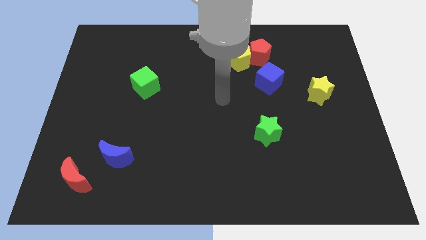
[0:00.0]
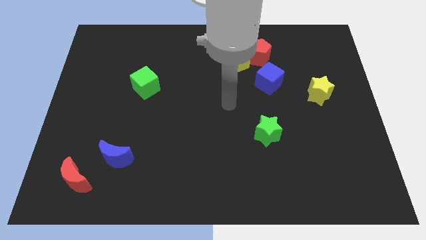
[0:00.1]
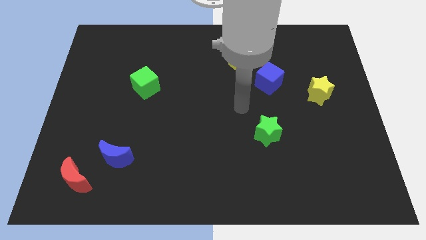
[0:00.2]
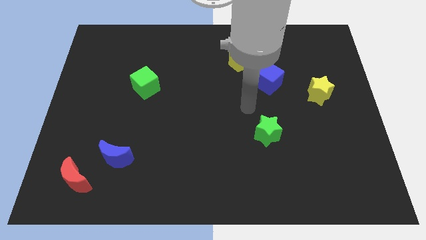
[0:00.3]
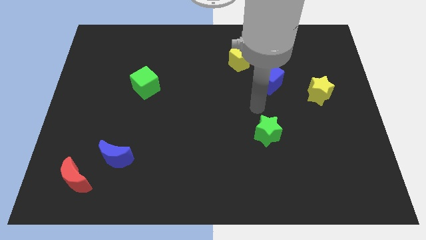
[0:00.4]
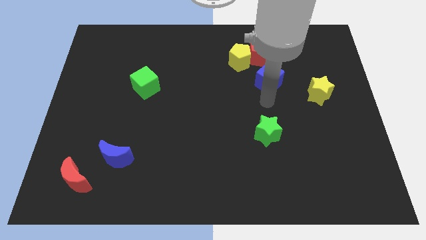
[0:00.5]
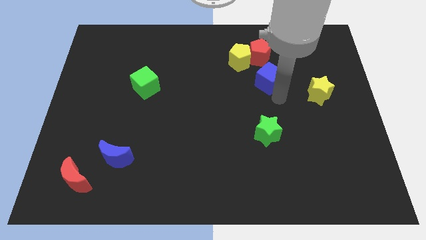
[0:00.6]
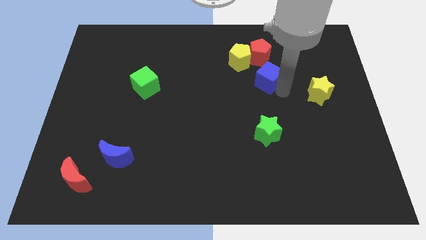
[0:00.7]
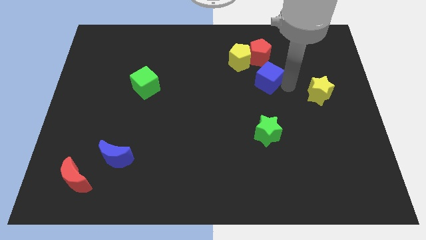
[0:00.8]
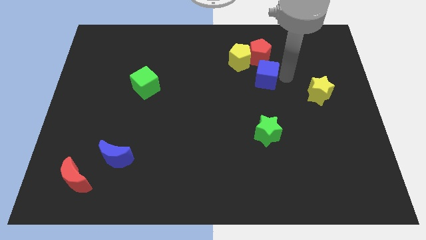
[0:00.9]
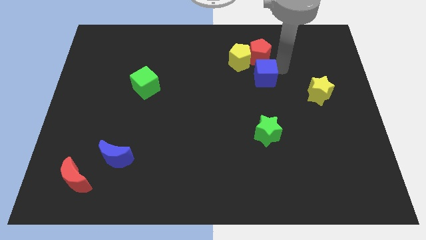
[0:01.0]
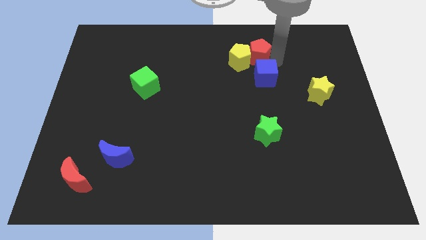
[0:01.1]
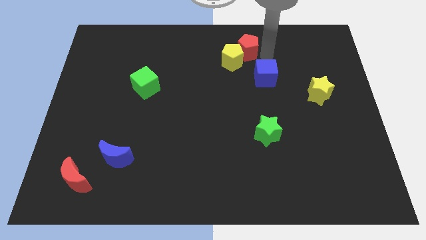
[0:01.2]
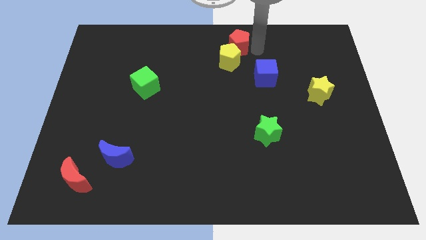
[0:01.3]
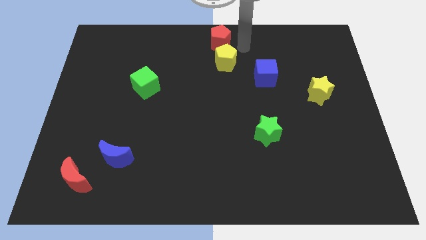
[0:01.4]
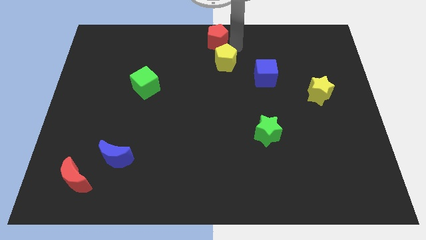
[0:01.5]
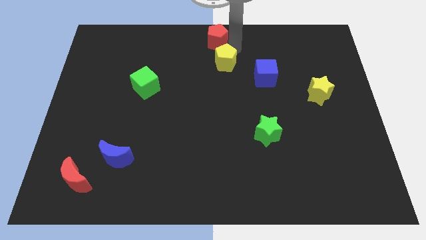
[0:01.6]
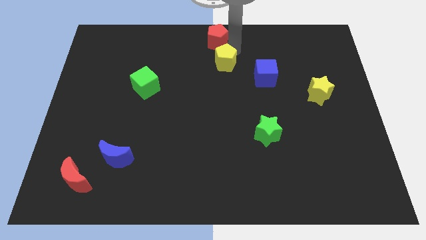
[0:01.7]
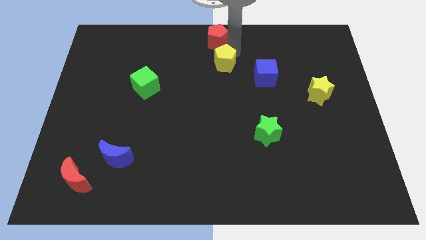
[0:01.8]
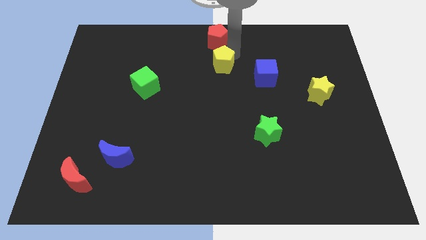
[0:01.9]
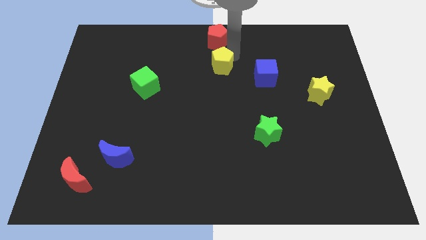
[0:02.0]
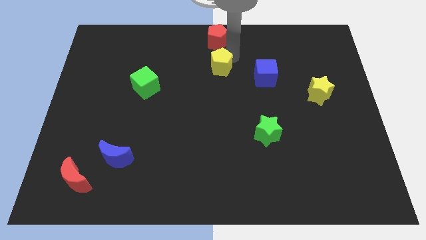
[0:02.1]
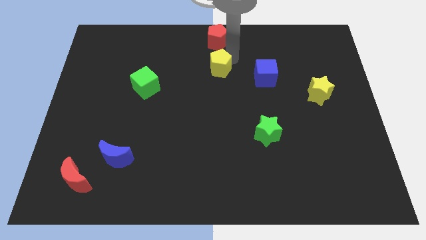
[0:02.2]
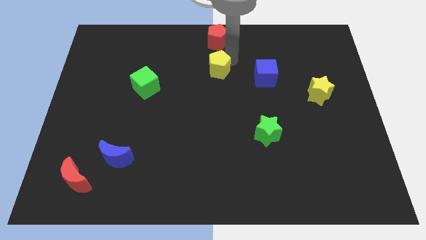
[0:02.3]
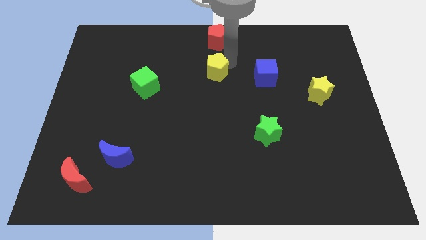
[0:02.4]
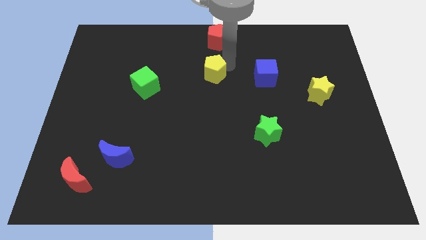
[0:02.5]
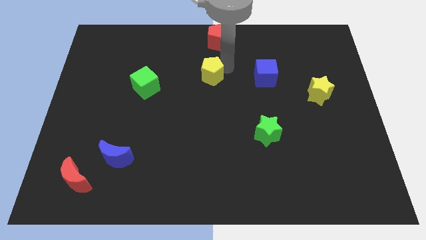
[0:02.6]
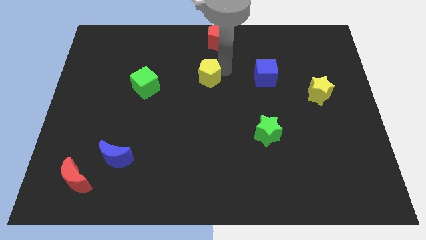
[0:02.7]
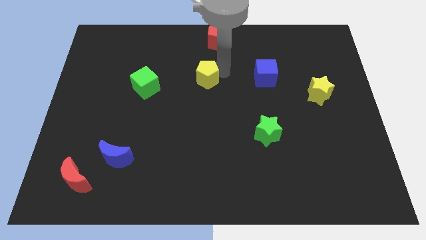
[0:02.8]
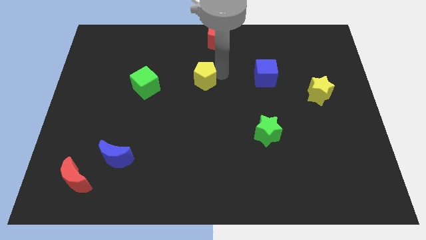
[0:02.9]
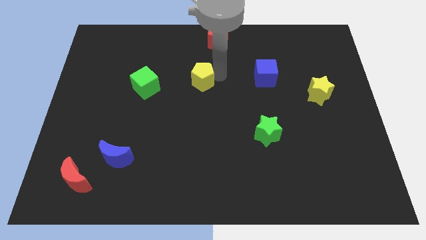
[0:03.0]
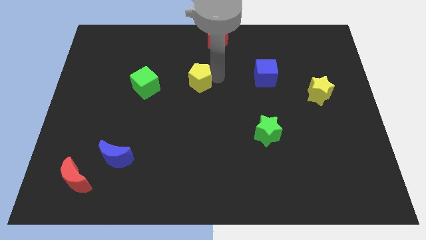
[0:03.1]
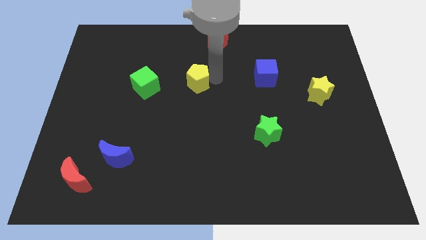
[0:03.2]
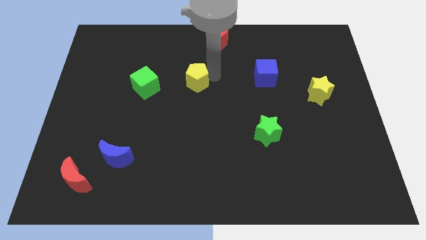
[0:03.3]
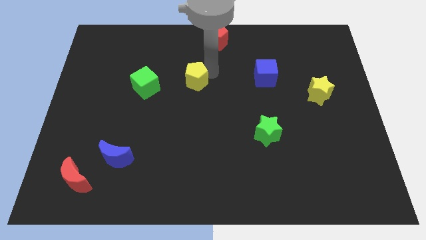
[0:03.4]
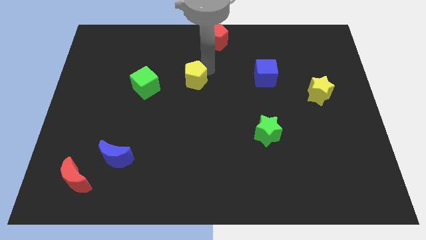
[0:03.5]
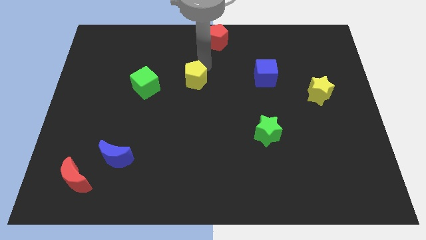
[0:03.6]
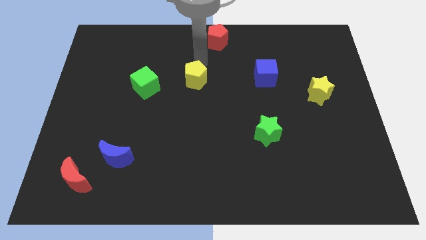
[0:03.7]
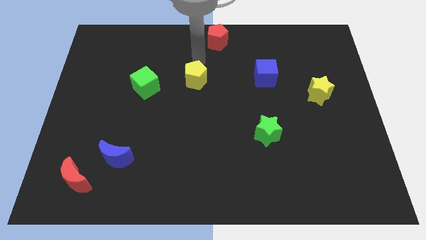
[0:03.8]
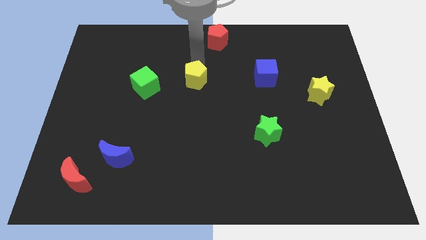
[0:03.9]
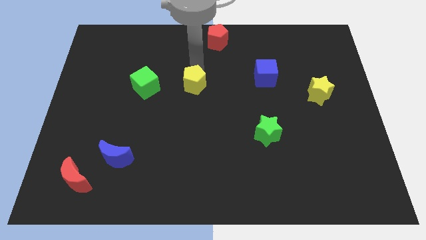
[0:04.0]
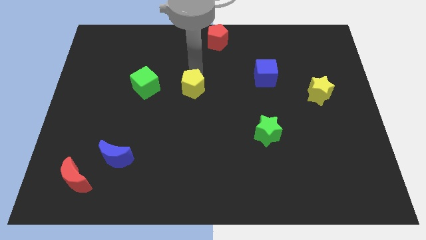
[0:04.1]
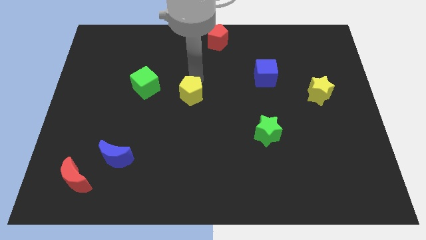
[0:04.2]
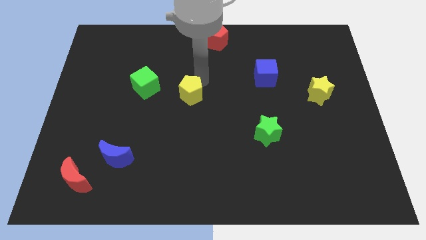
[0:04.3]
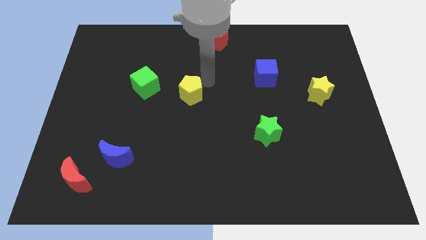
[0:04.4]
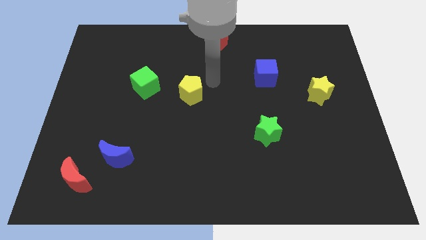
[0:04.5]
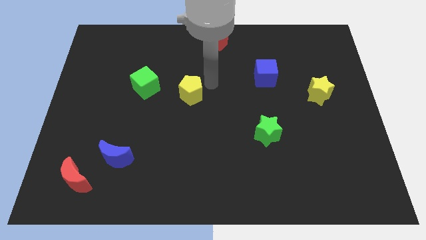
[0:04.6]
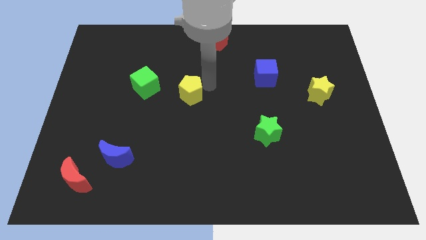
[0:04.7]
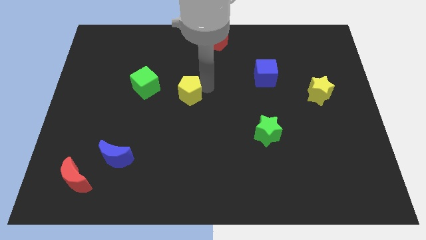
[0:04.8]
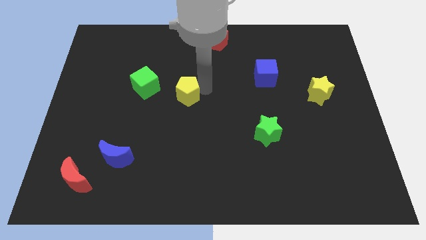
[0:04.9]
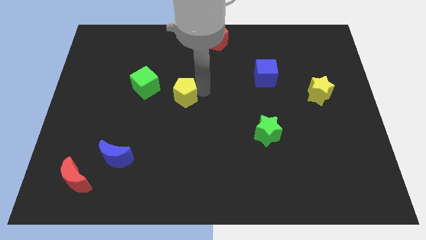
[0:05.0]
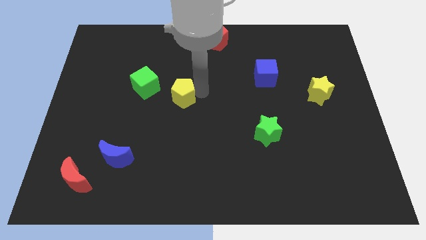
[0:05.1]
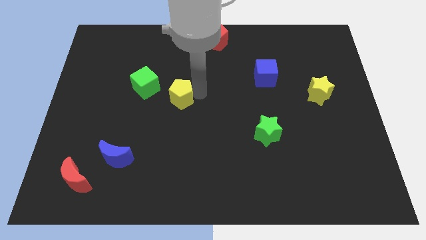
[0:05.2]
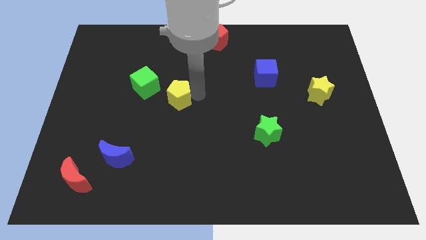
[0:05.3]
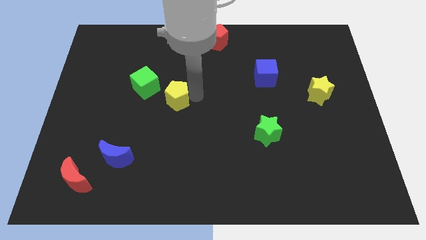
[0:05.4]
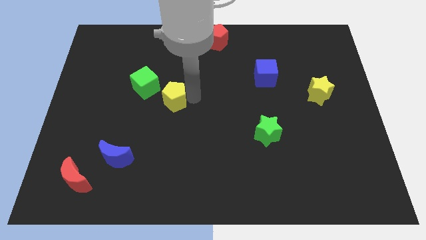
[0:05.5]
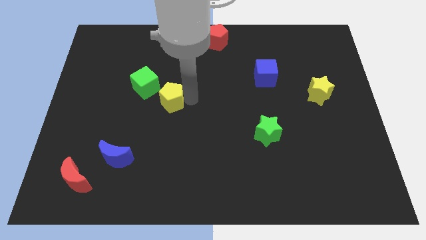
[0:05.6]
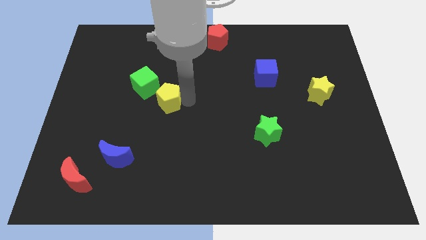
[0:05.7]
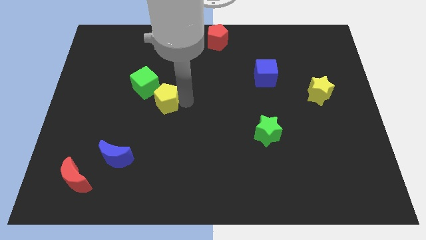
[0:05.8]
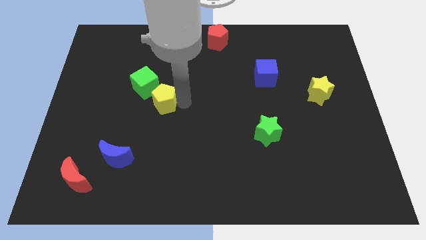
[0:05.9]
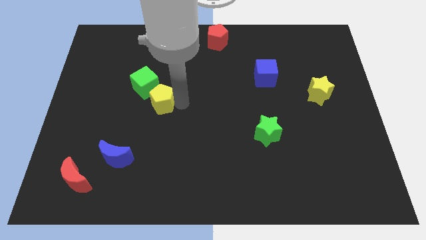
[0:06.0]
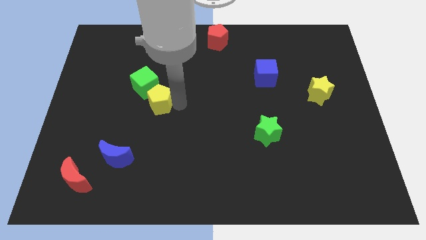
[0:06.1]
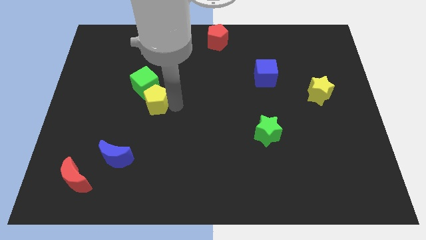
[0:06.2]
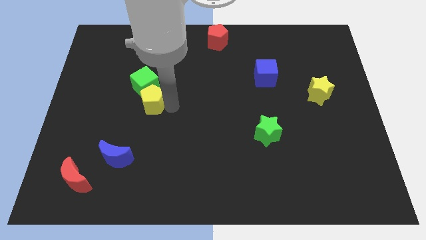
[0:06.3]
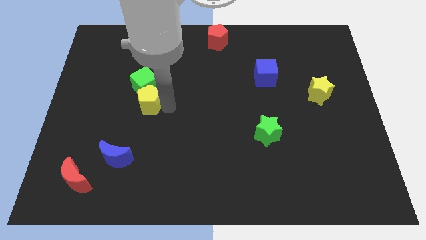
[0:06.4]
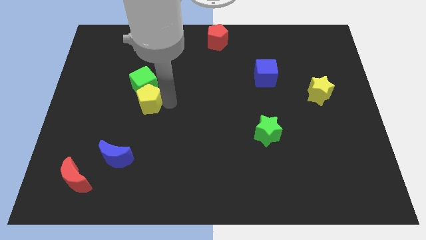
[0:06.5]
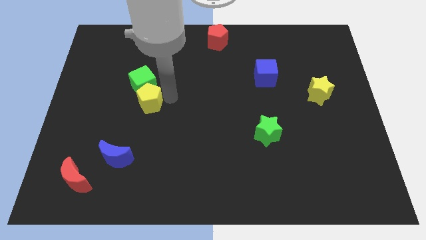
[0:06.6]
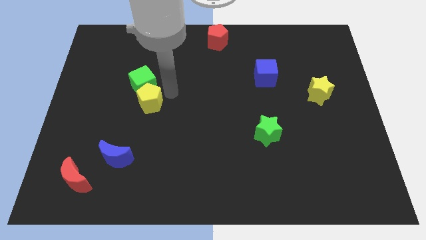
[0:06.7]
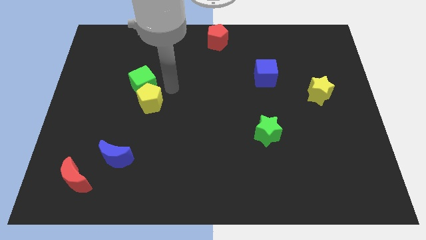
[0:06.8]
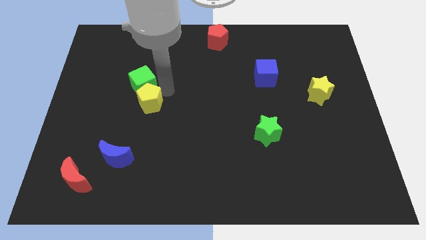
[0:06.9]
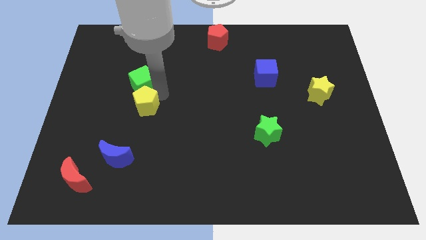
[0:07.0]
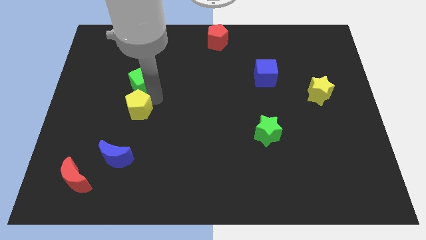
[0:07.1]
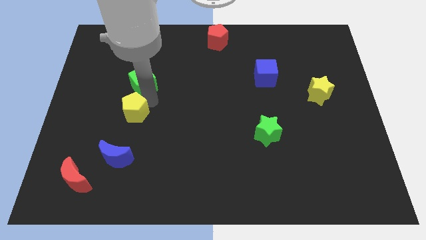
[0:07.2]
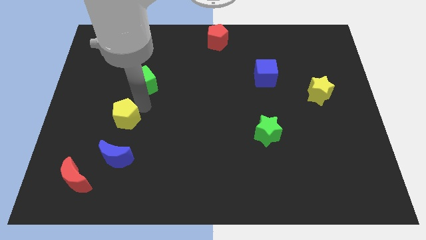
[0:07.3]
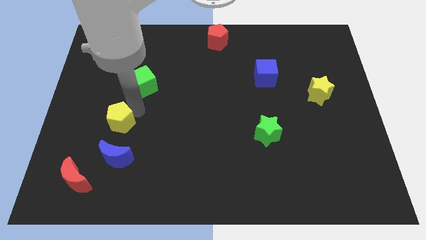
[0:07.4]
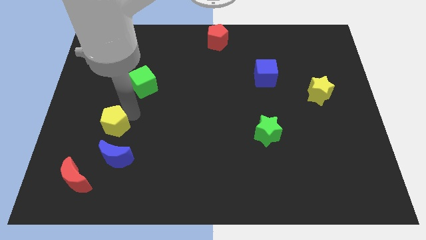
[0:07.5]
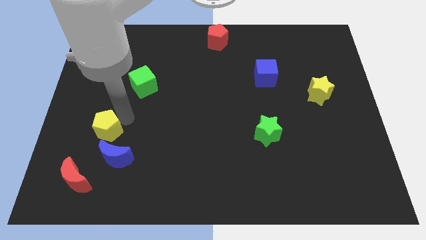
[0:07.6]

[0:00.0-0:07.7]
put the yellow pentagon above the red moon
